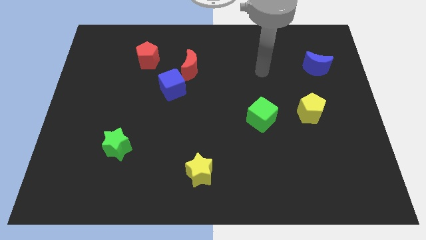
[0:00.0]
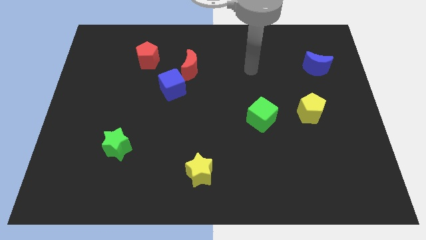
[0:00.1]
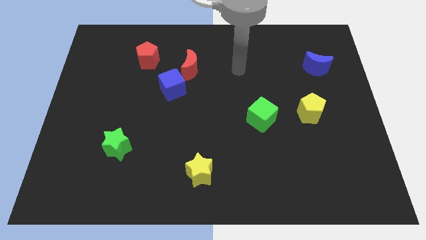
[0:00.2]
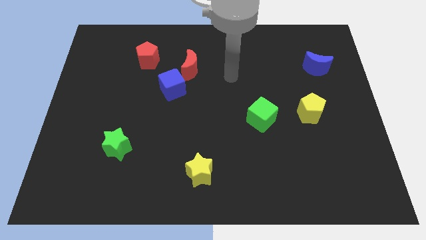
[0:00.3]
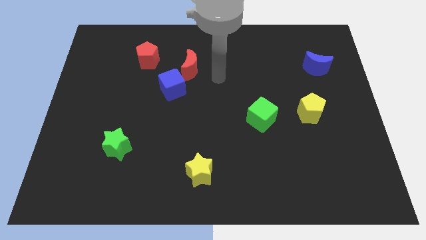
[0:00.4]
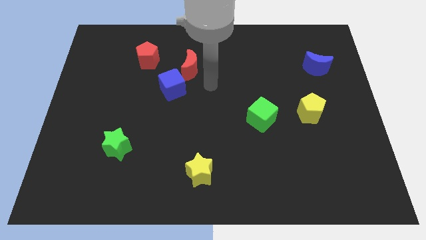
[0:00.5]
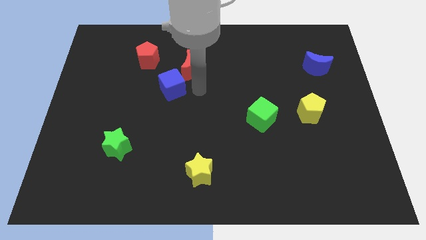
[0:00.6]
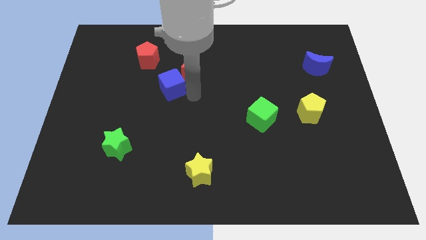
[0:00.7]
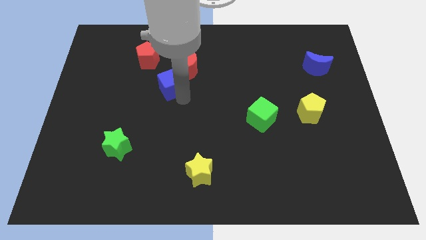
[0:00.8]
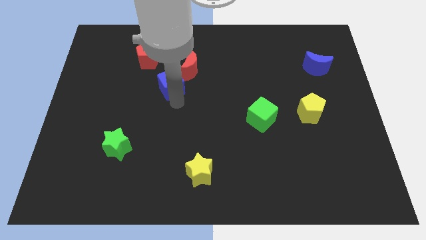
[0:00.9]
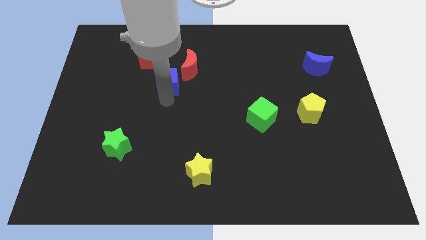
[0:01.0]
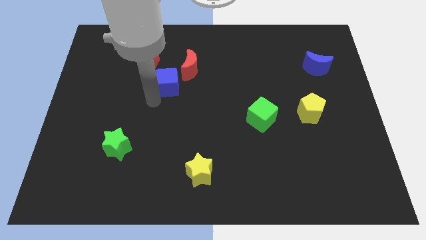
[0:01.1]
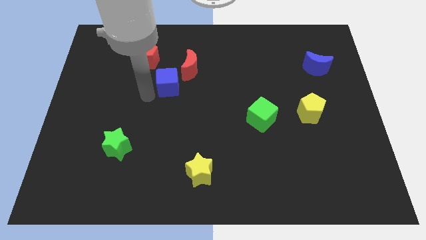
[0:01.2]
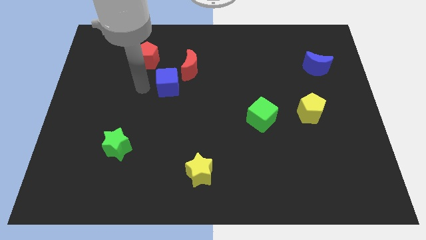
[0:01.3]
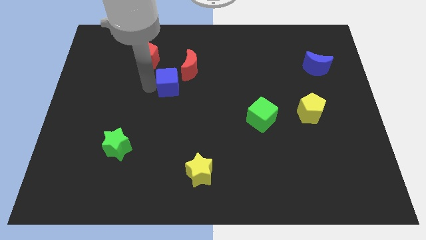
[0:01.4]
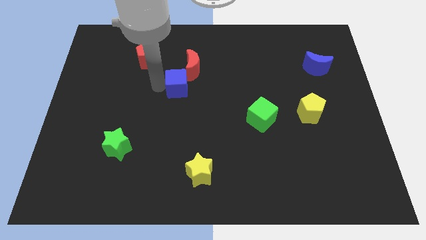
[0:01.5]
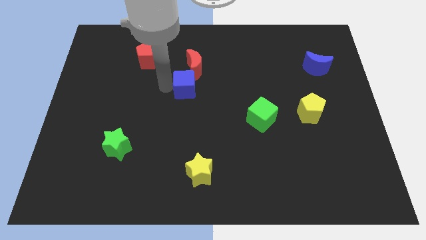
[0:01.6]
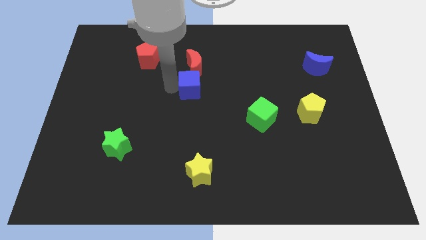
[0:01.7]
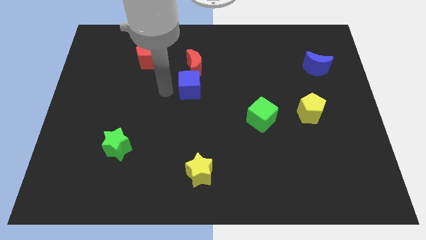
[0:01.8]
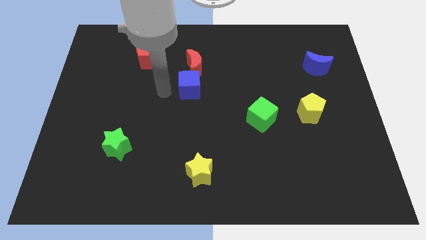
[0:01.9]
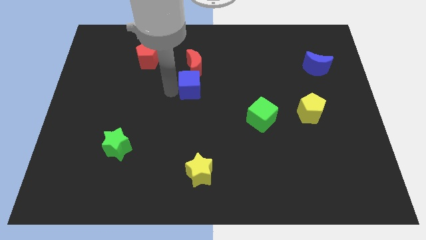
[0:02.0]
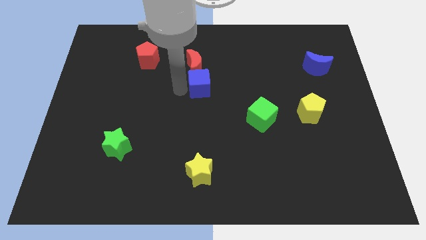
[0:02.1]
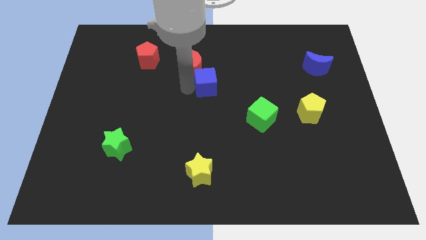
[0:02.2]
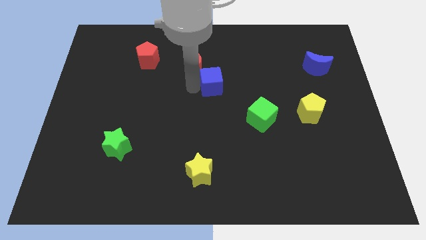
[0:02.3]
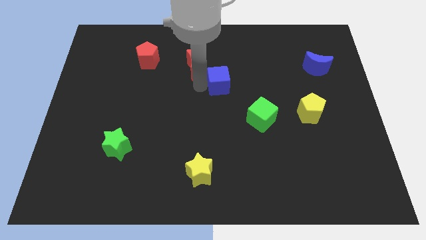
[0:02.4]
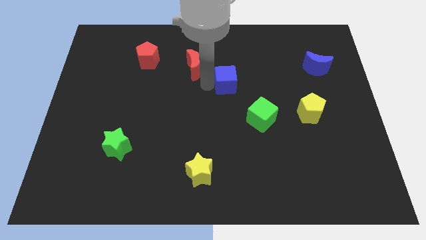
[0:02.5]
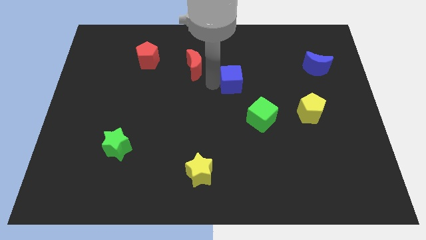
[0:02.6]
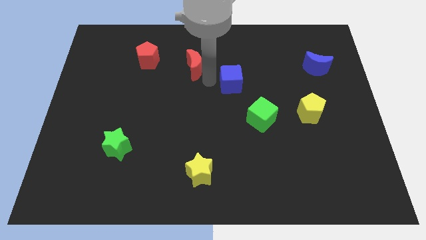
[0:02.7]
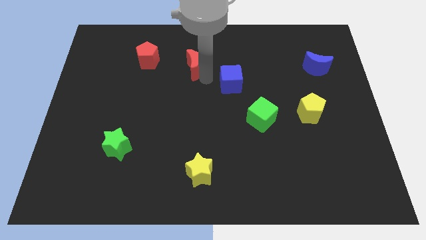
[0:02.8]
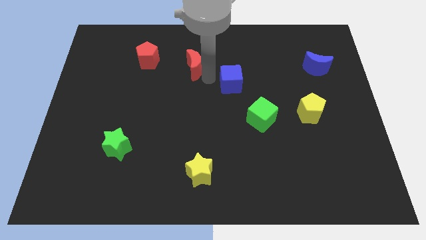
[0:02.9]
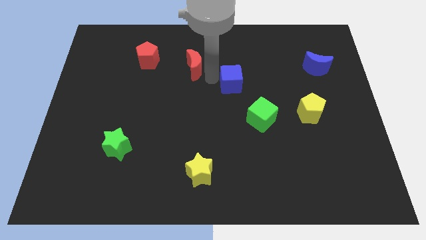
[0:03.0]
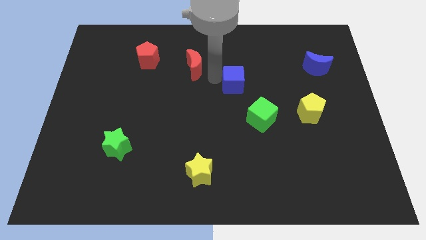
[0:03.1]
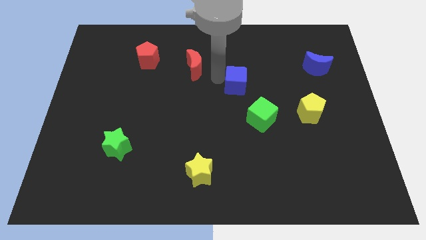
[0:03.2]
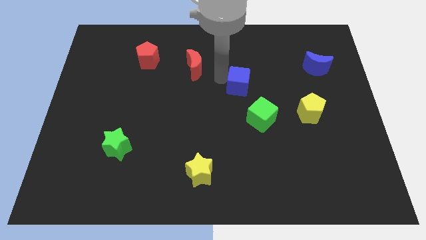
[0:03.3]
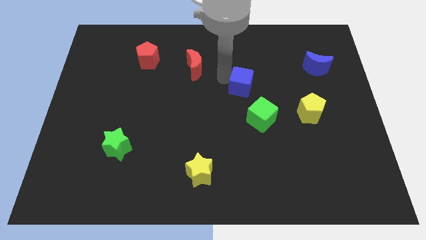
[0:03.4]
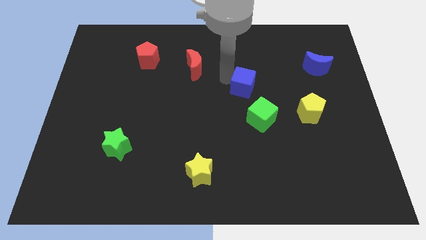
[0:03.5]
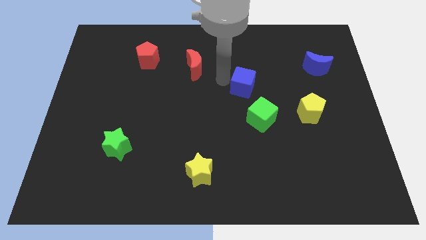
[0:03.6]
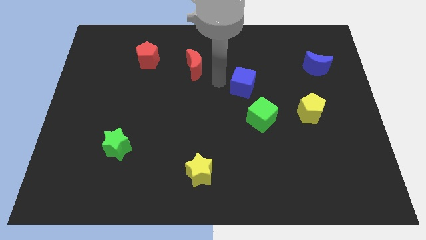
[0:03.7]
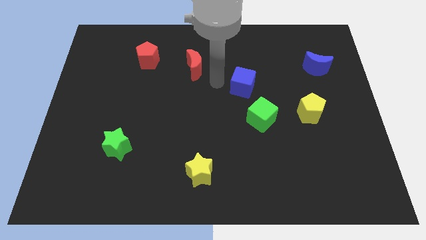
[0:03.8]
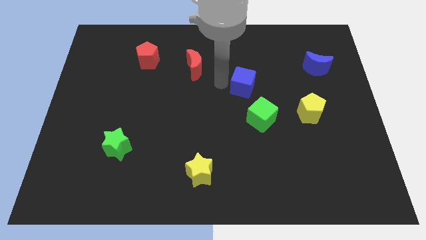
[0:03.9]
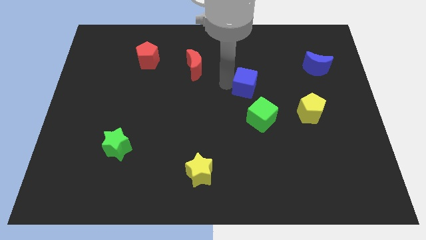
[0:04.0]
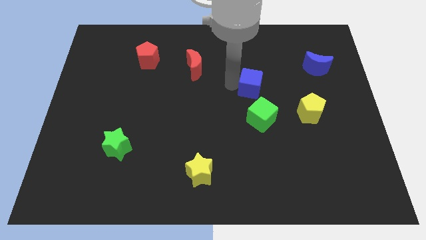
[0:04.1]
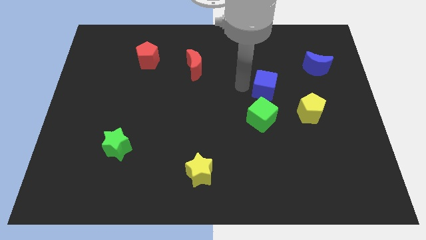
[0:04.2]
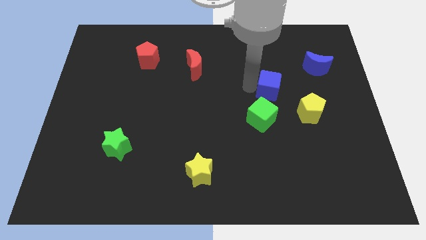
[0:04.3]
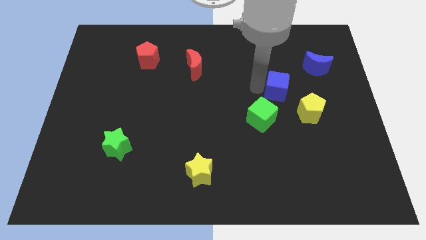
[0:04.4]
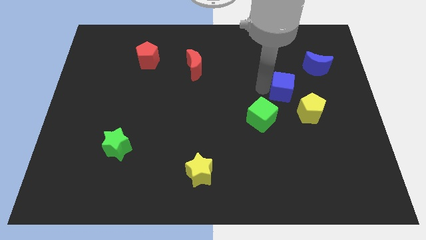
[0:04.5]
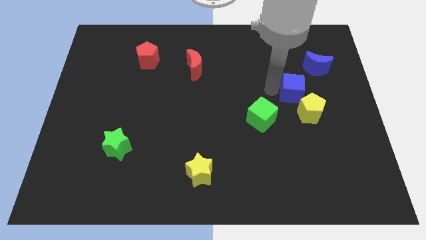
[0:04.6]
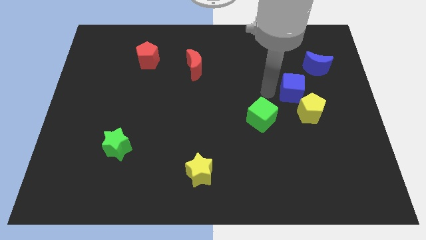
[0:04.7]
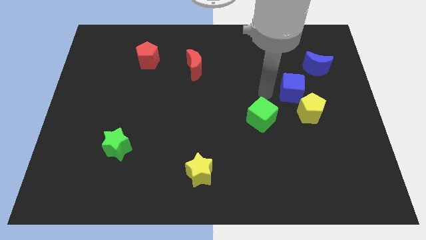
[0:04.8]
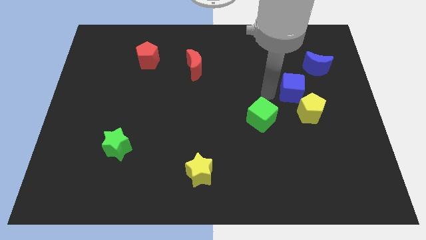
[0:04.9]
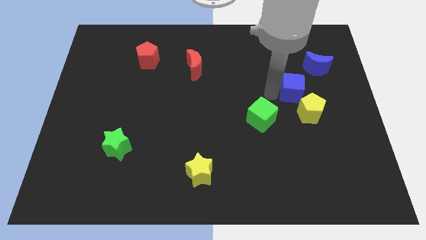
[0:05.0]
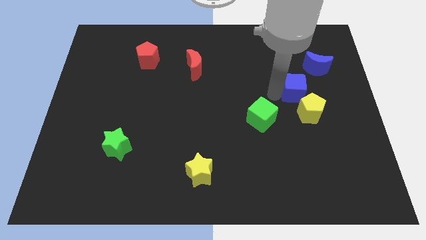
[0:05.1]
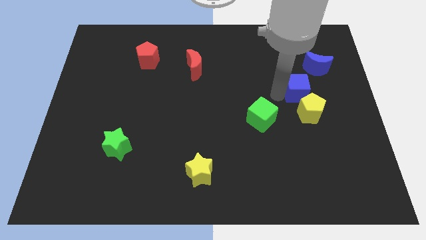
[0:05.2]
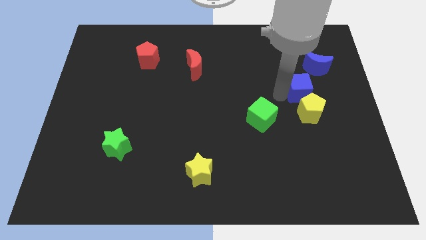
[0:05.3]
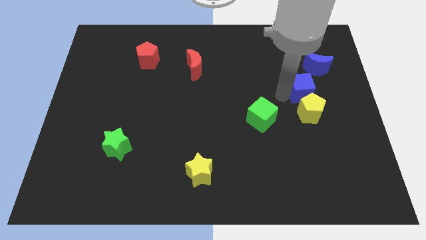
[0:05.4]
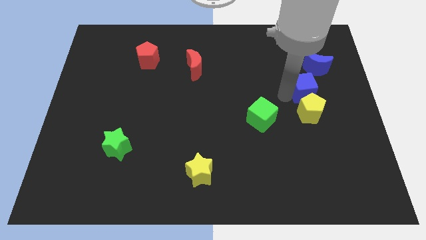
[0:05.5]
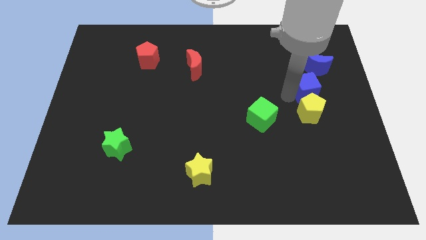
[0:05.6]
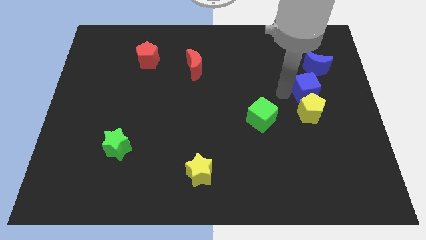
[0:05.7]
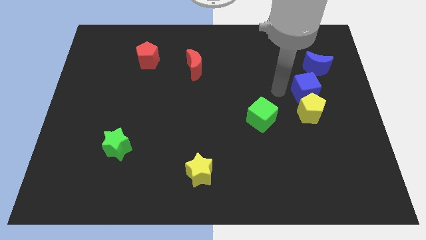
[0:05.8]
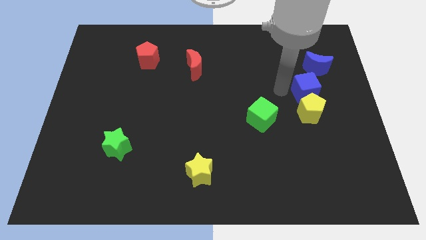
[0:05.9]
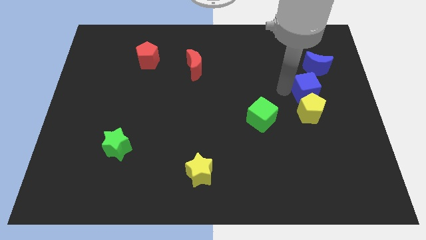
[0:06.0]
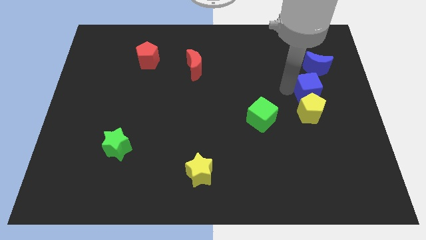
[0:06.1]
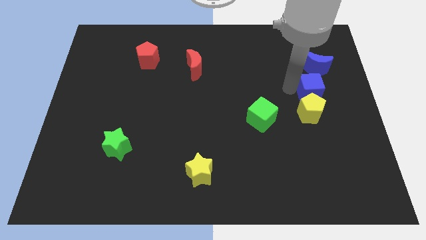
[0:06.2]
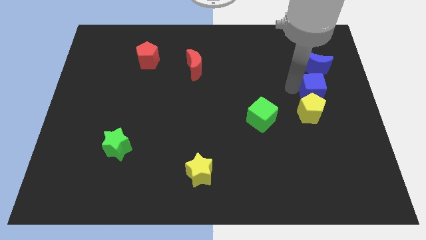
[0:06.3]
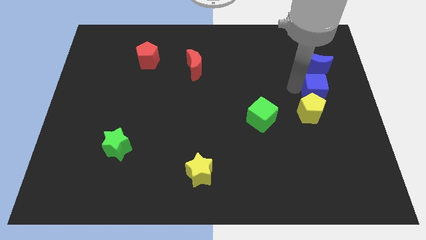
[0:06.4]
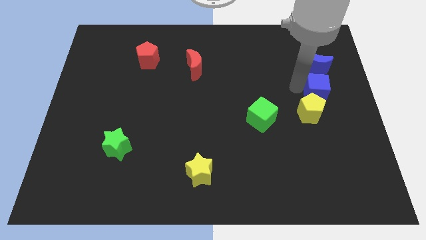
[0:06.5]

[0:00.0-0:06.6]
slide the blue cube to the right side

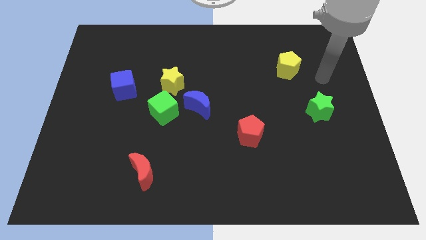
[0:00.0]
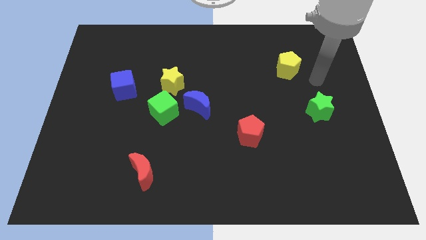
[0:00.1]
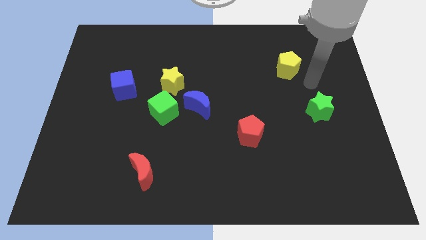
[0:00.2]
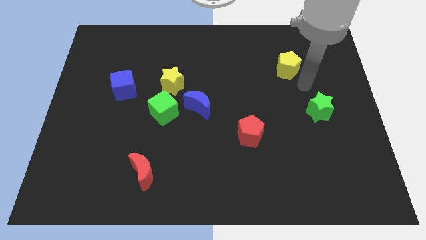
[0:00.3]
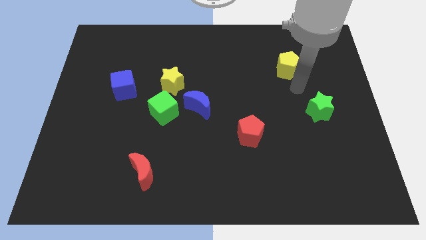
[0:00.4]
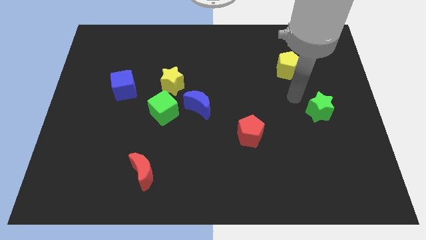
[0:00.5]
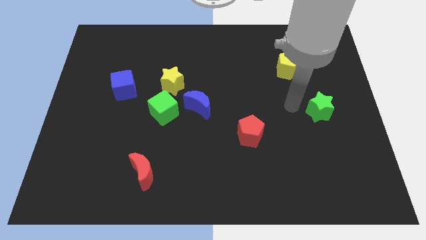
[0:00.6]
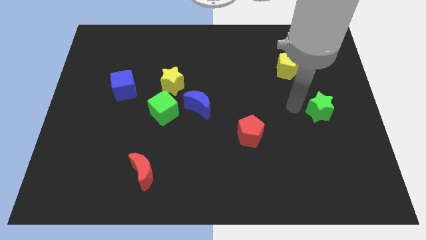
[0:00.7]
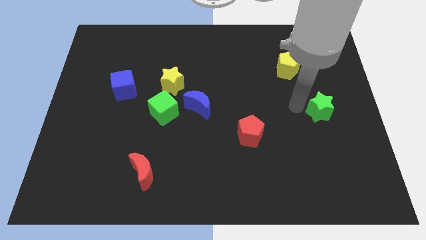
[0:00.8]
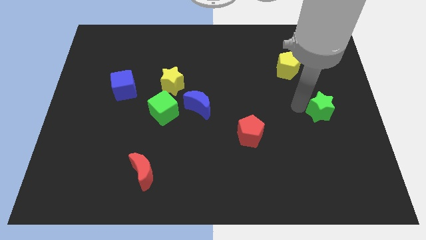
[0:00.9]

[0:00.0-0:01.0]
put the green star to the right side of the board
